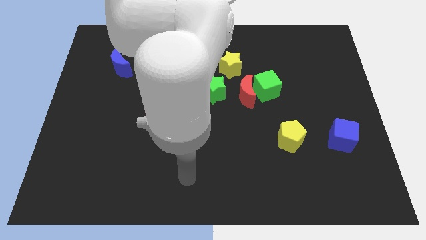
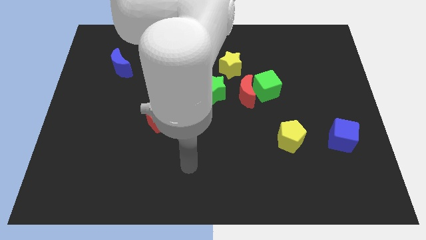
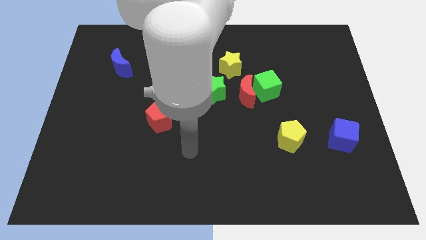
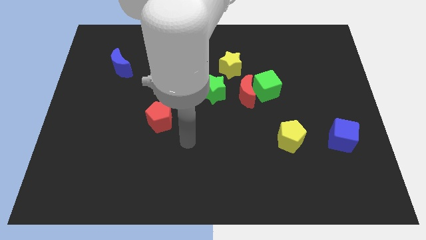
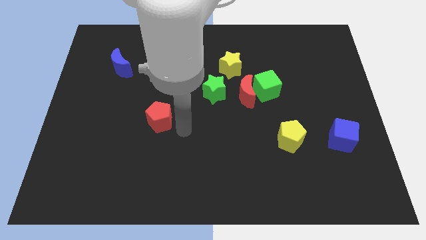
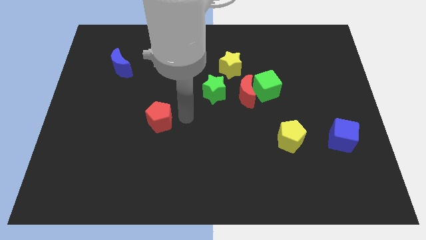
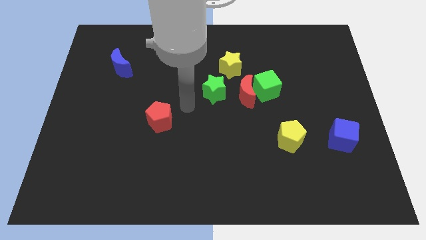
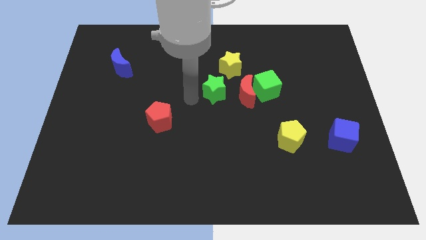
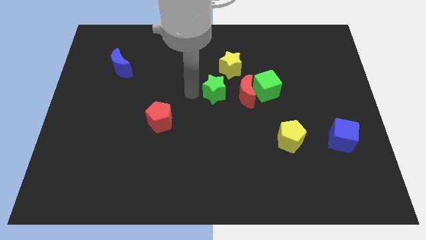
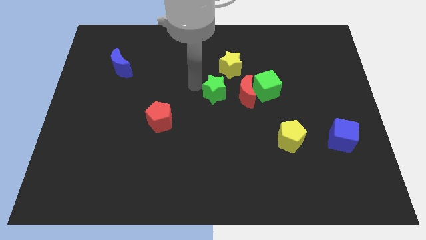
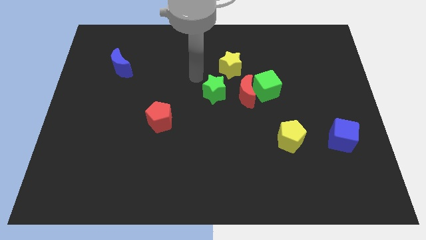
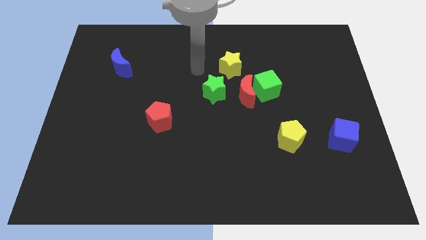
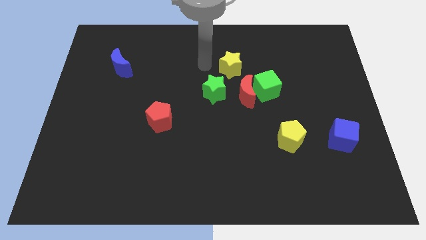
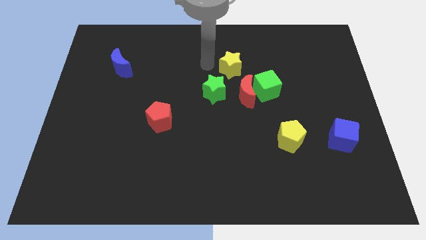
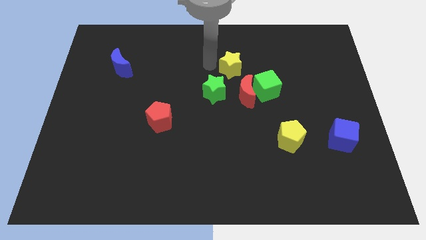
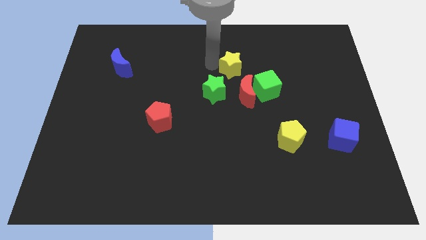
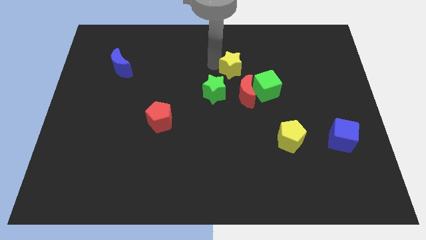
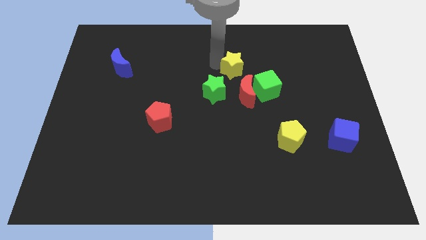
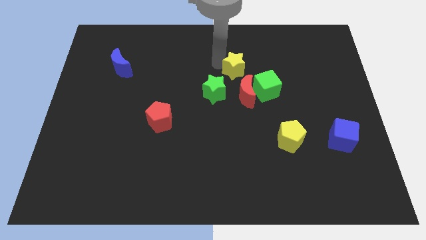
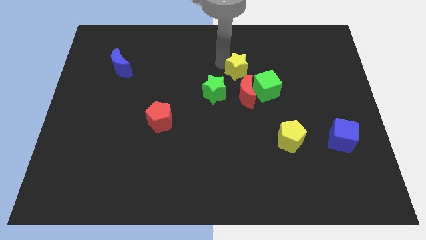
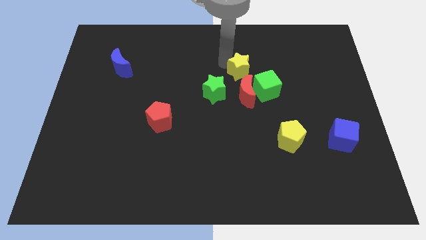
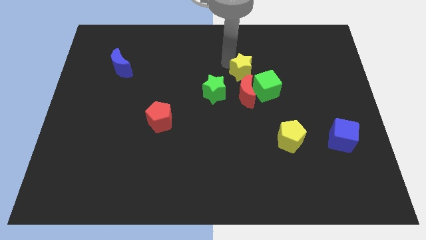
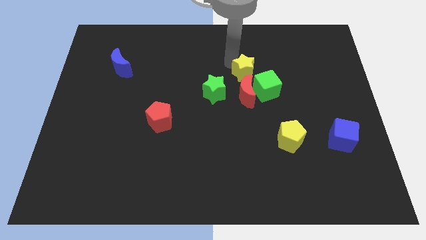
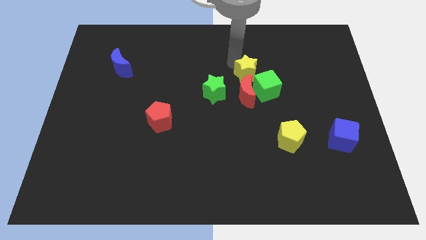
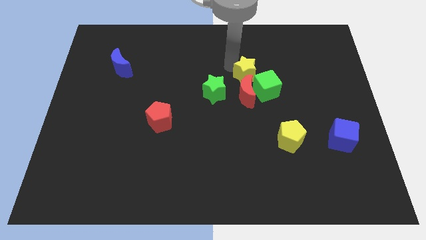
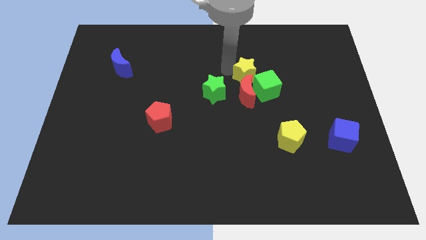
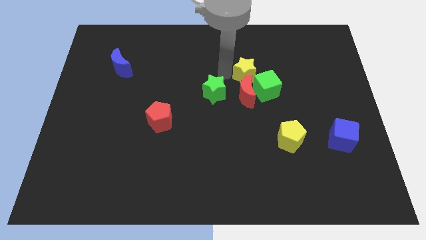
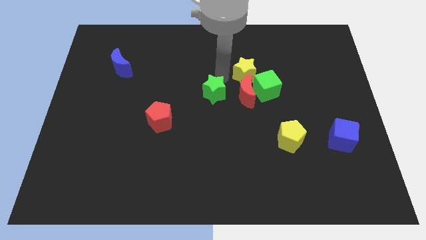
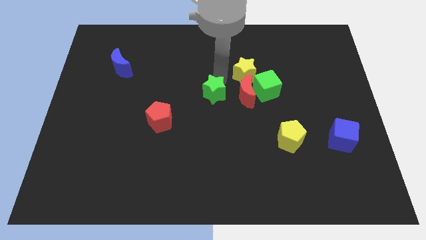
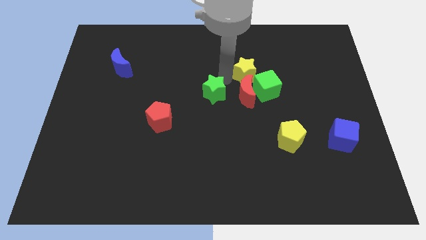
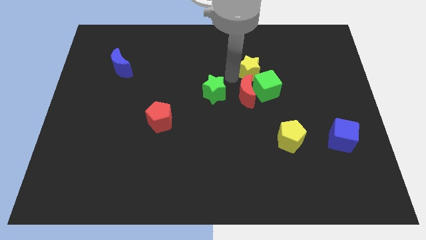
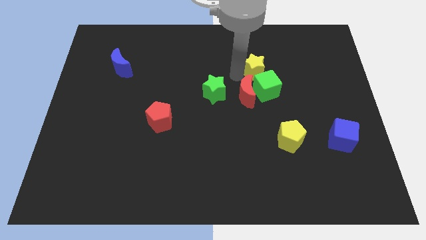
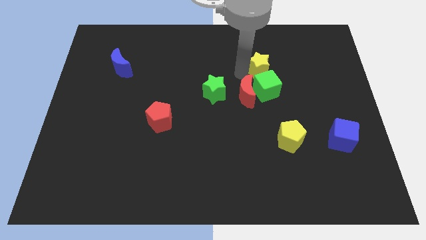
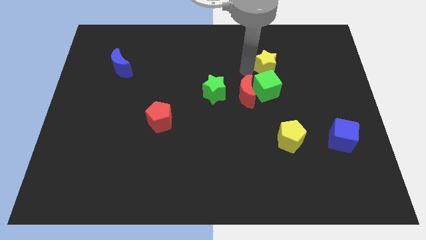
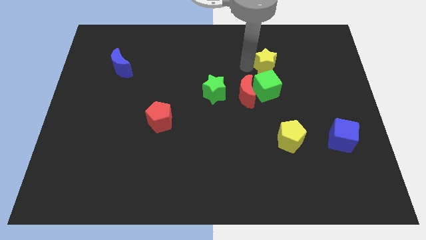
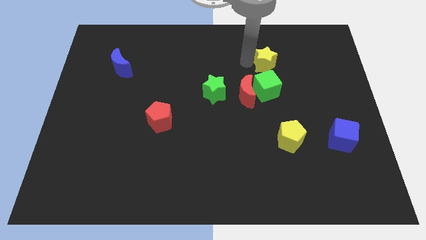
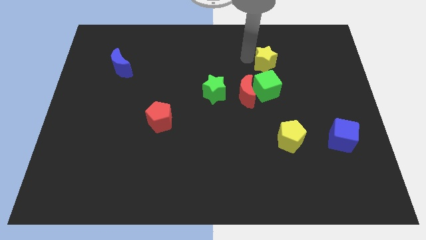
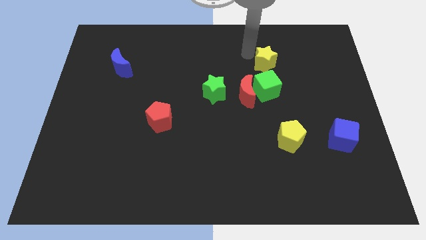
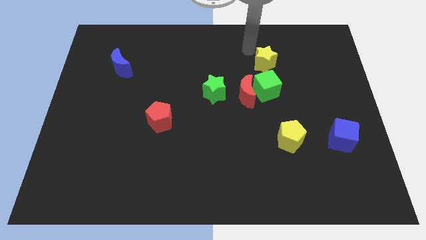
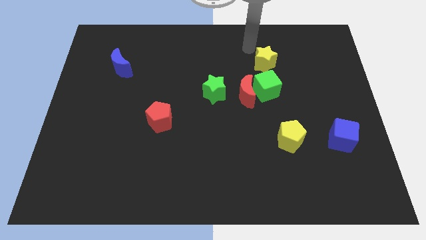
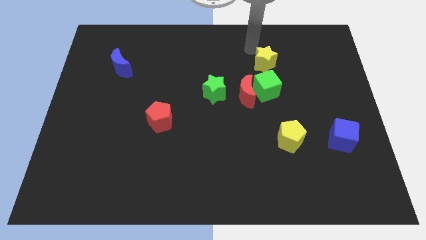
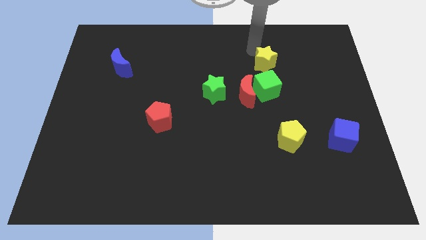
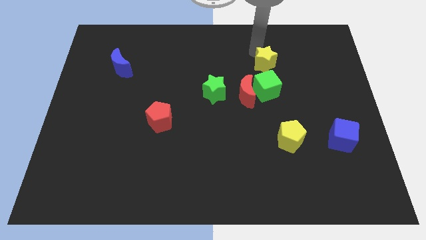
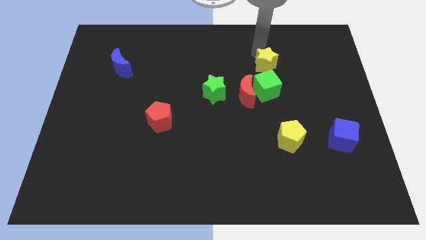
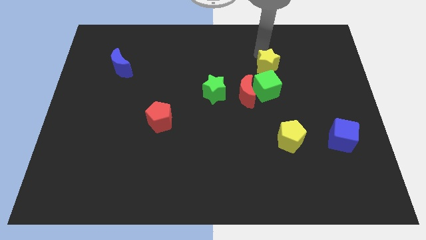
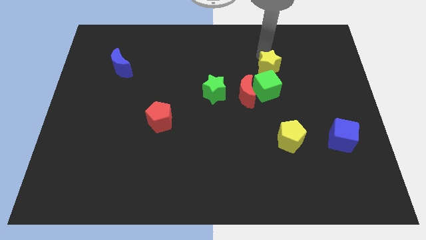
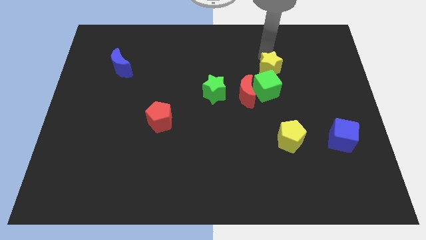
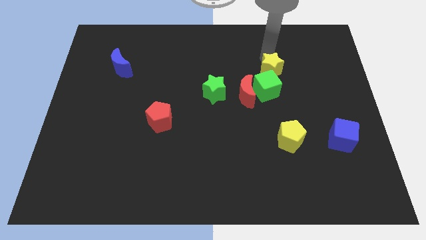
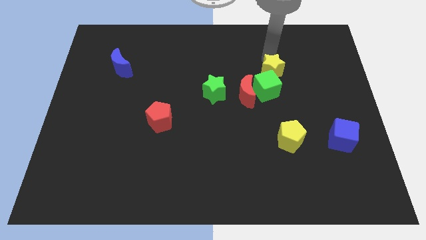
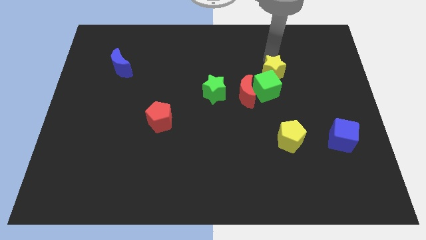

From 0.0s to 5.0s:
push the yellow star a bit diagonally down and to the right

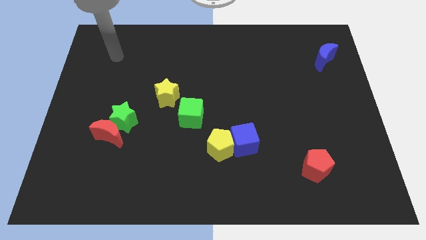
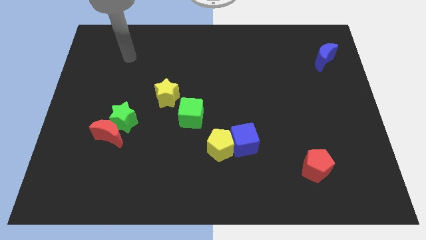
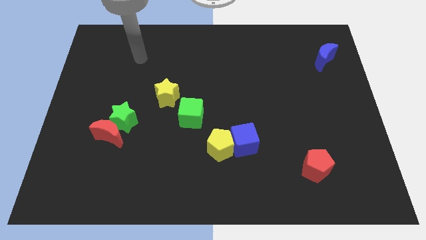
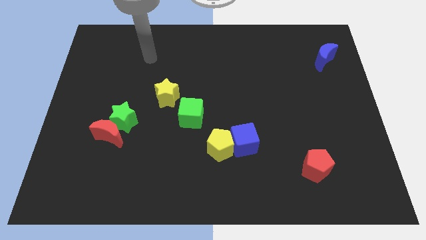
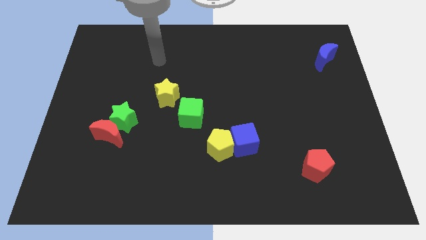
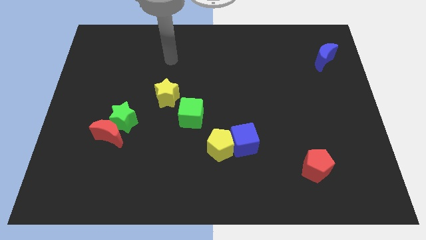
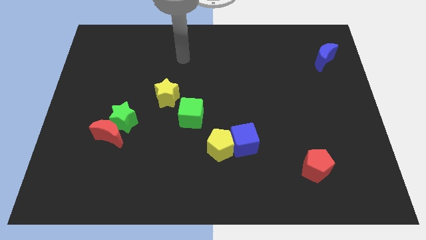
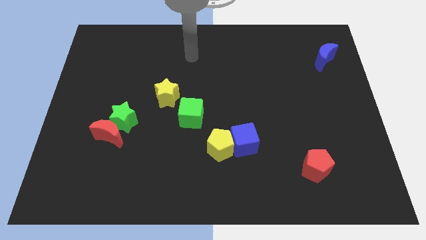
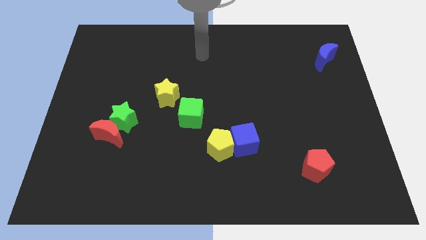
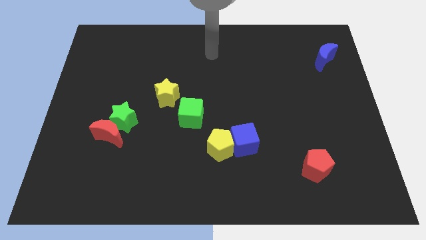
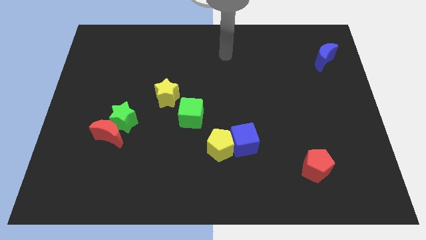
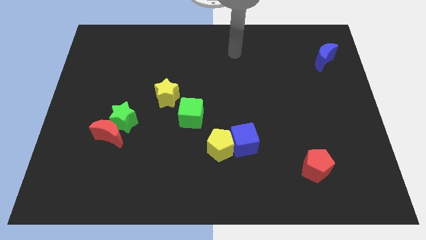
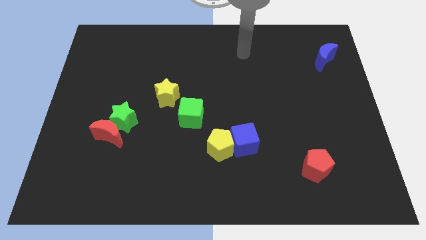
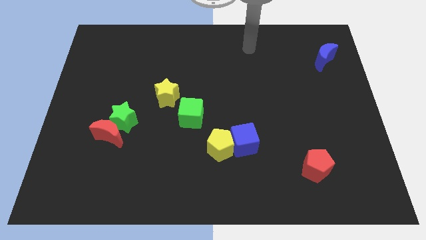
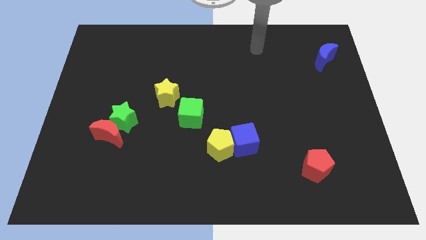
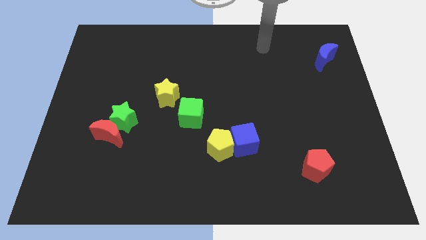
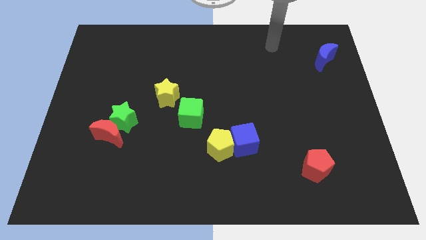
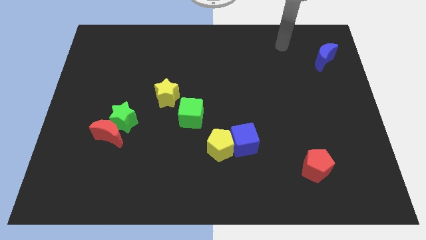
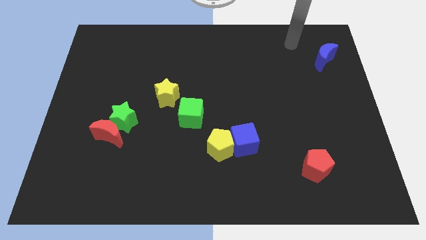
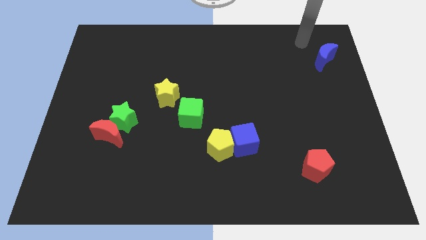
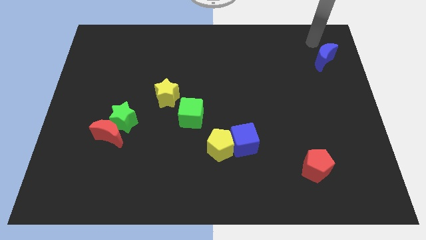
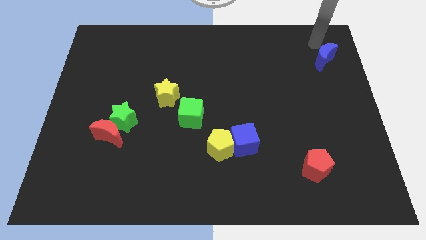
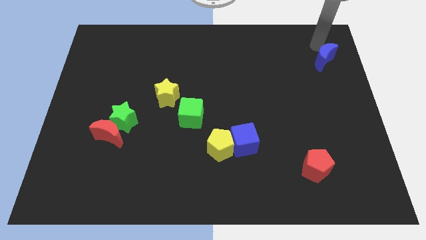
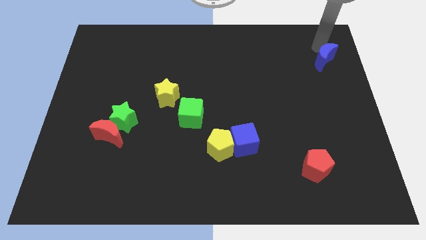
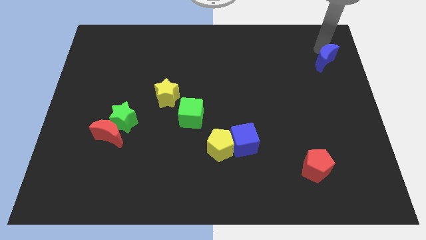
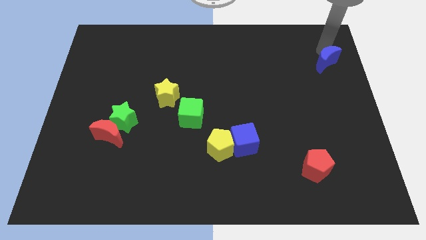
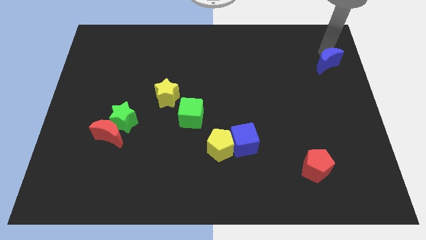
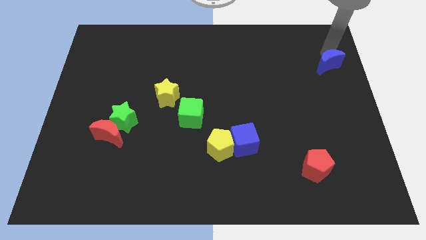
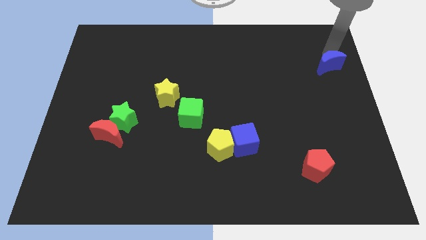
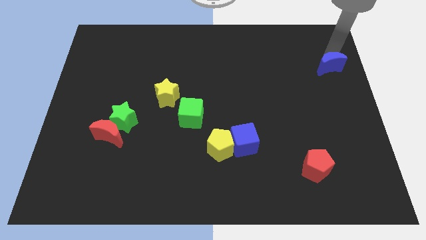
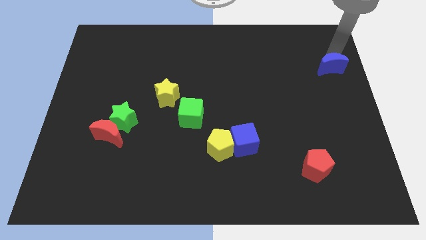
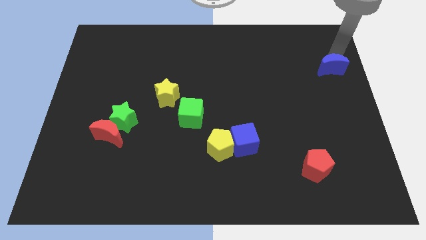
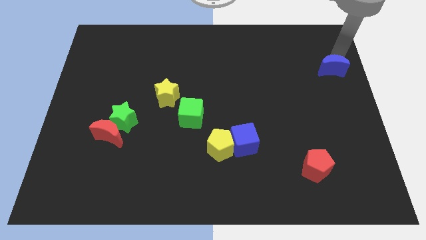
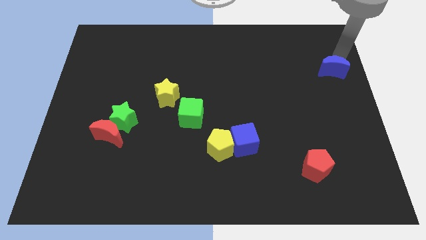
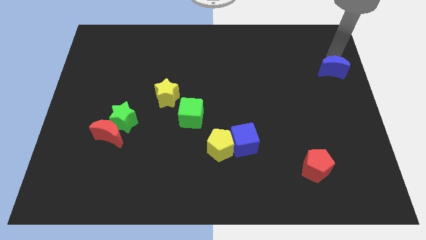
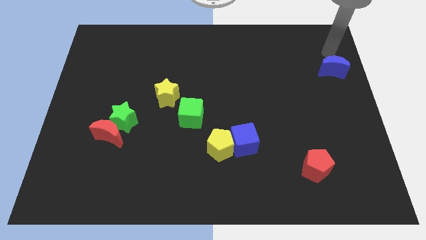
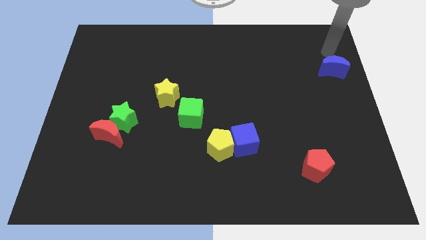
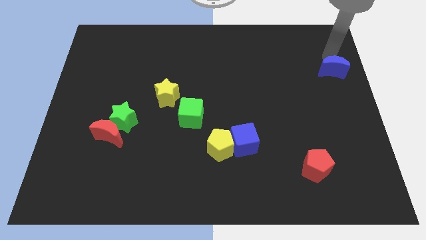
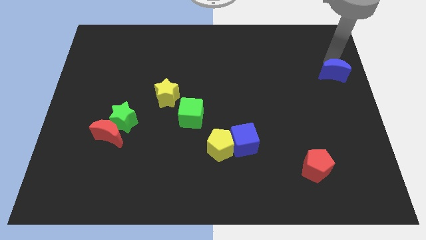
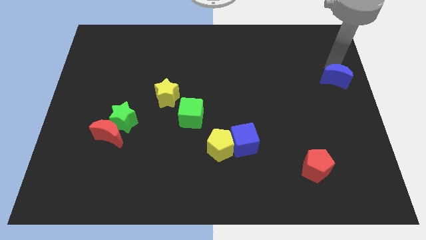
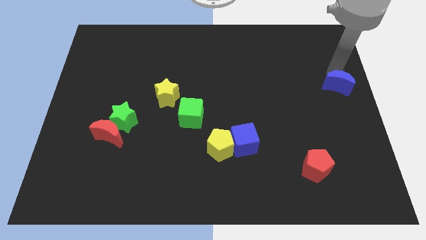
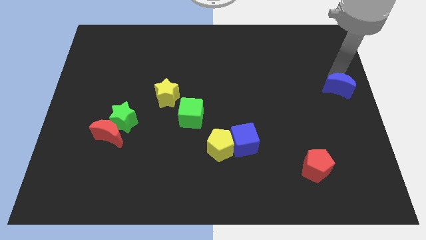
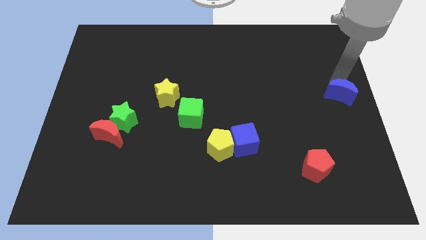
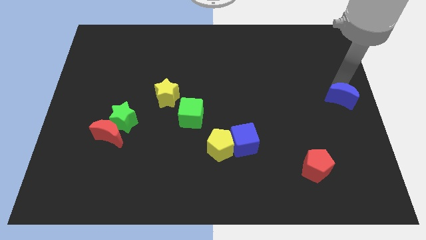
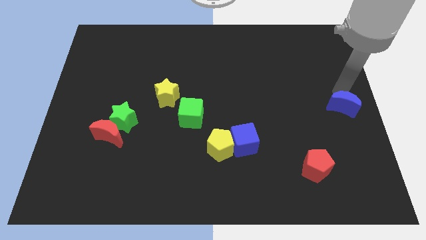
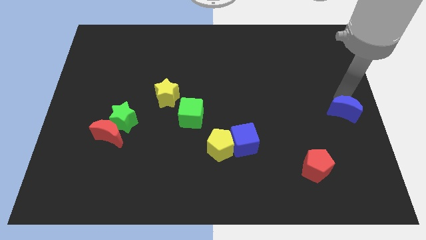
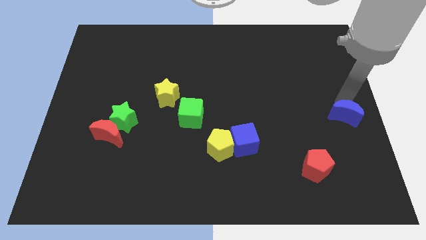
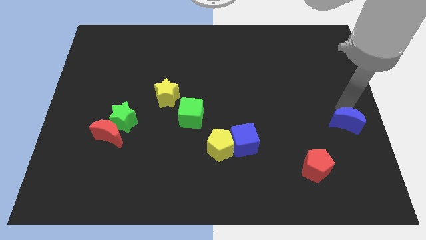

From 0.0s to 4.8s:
move the blue moon downwards
